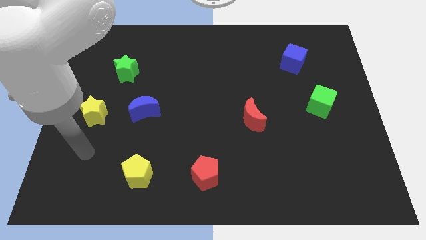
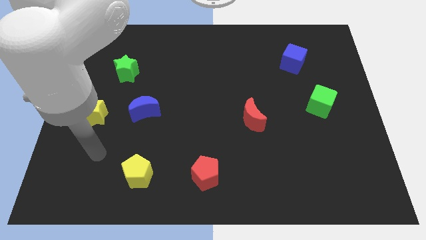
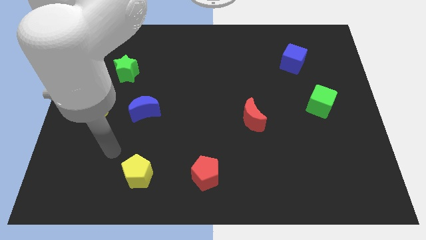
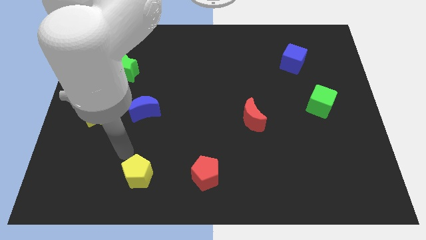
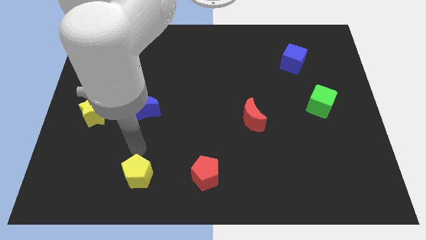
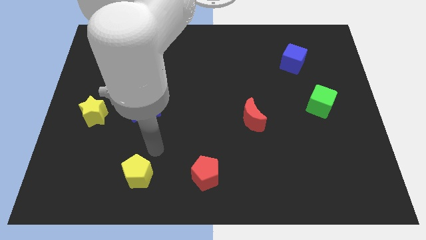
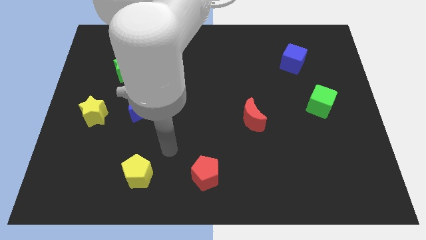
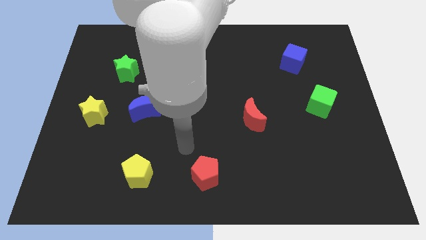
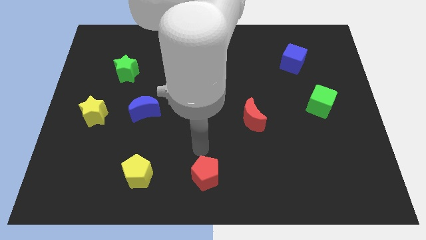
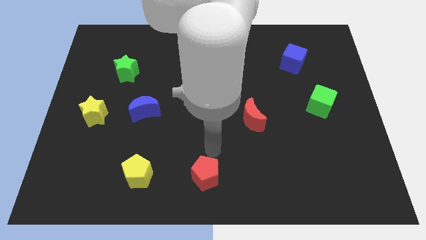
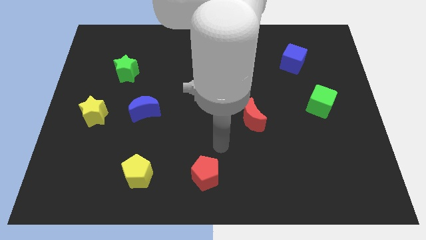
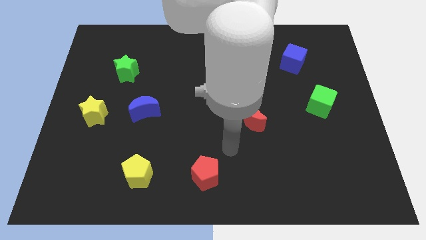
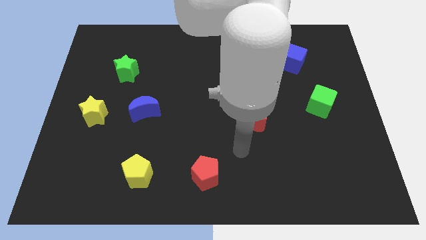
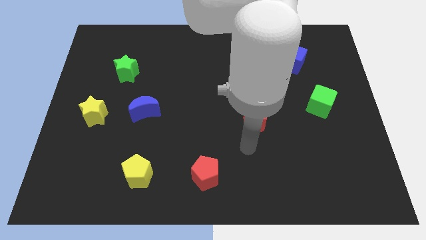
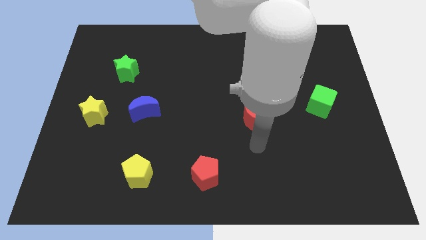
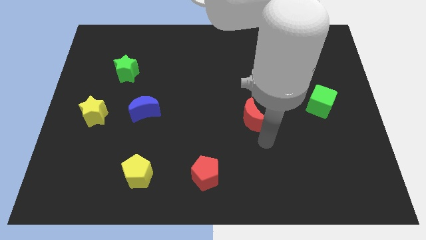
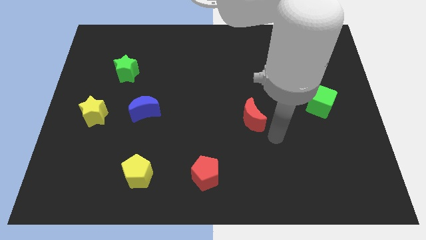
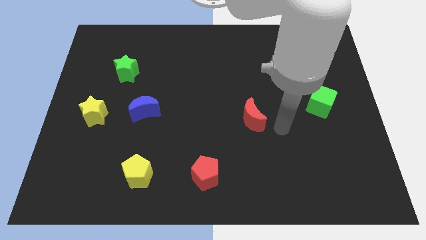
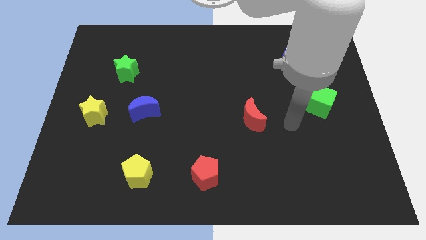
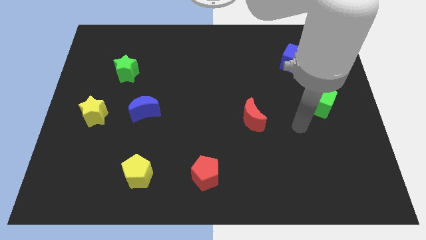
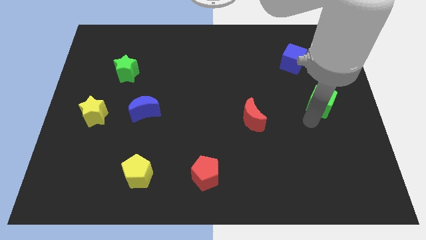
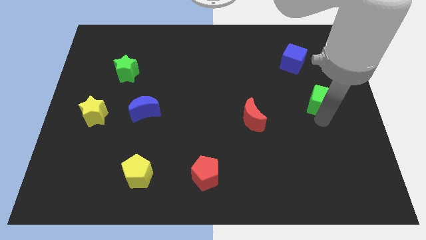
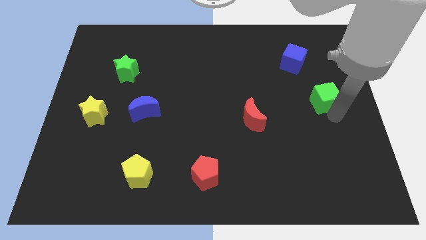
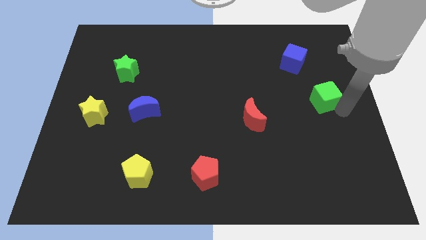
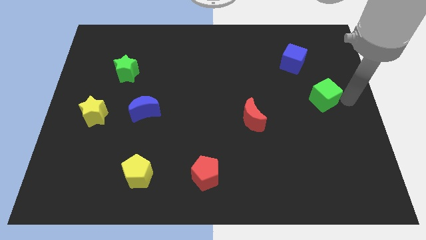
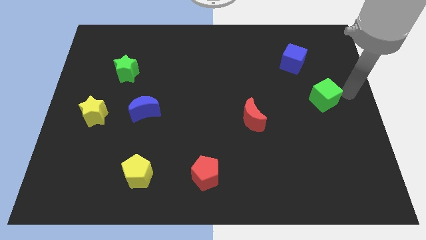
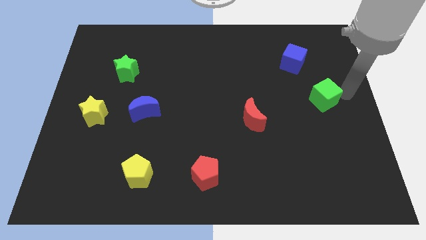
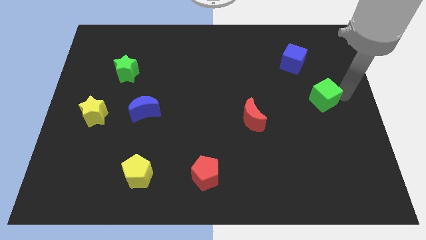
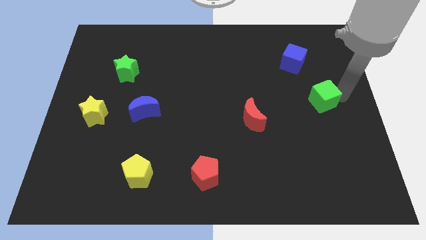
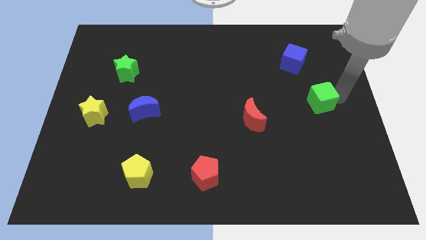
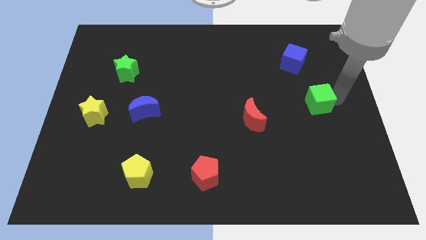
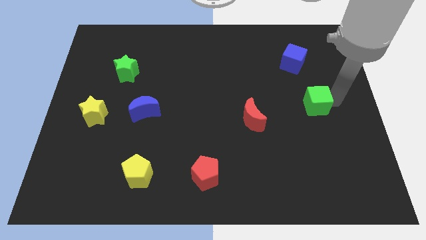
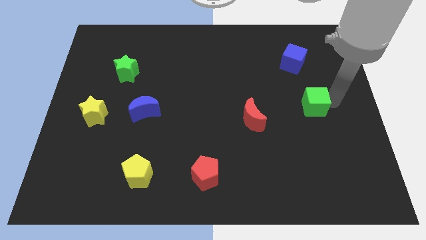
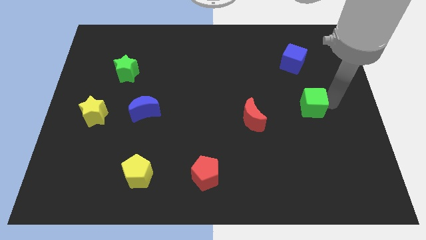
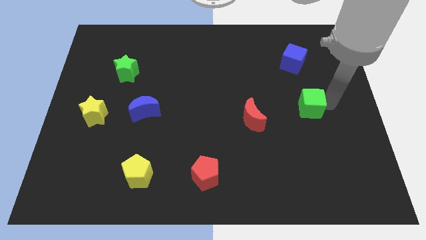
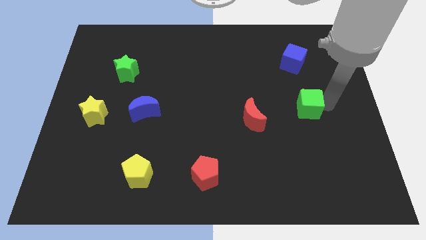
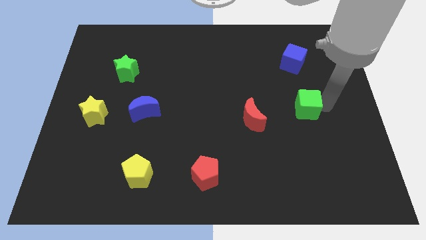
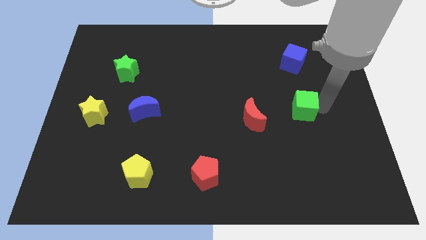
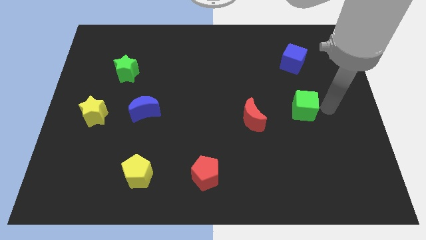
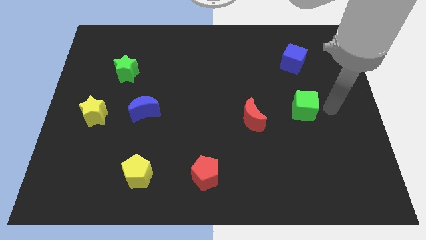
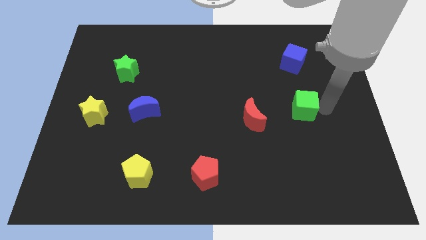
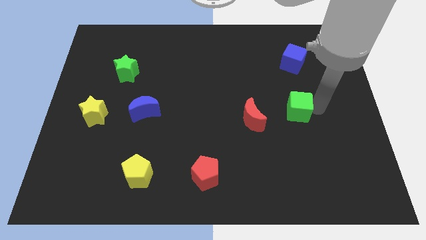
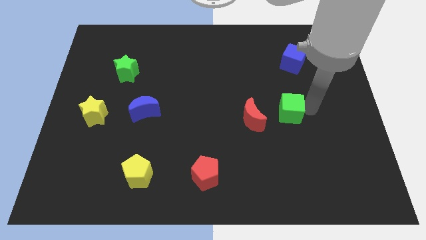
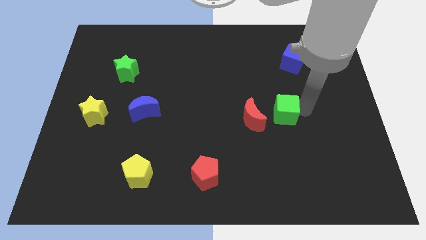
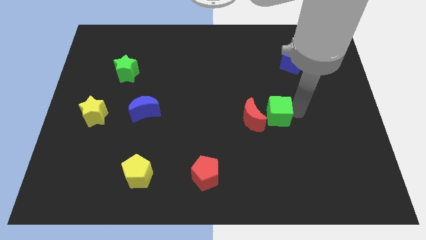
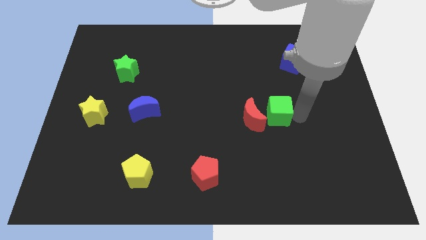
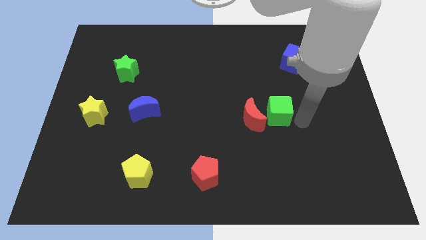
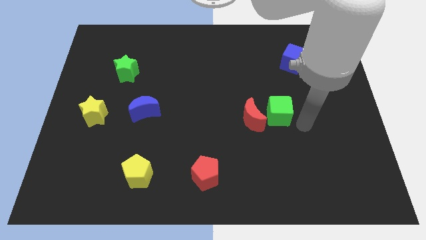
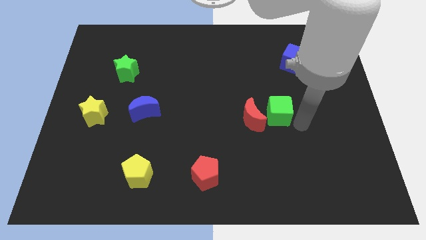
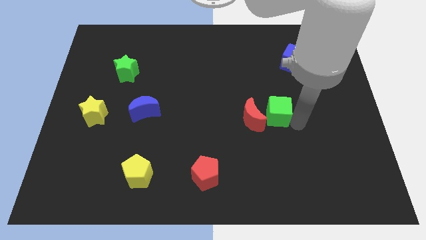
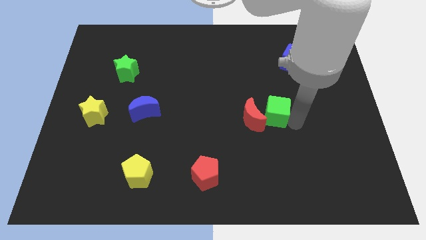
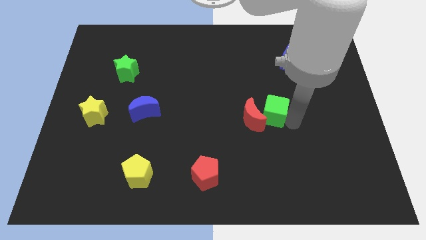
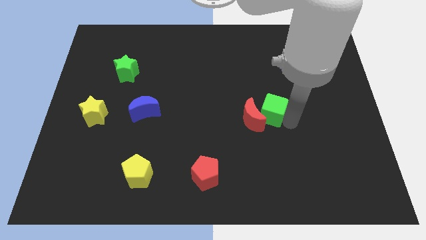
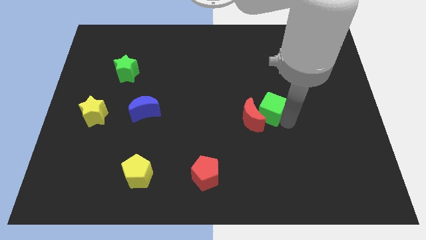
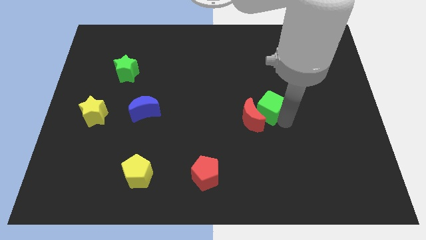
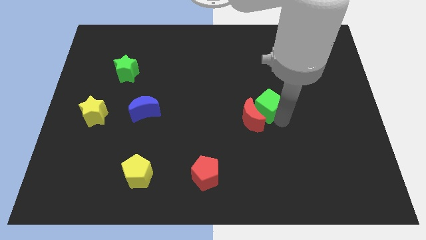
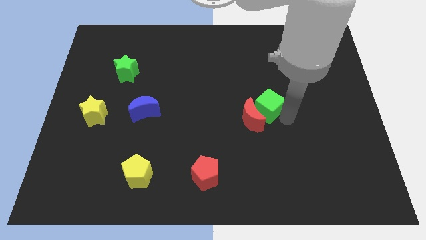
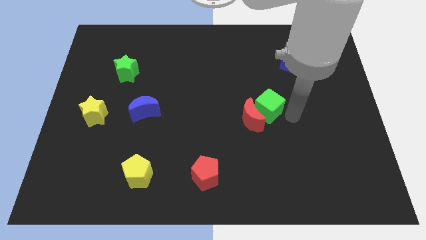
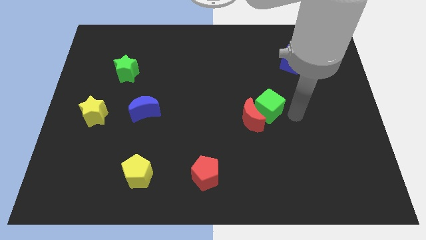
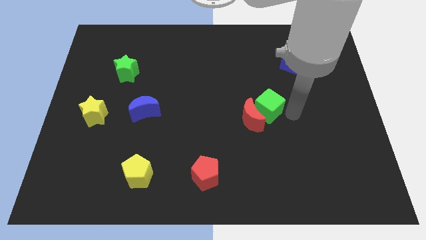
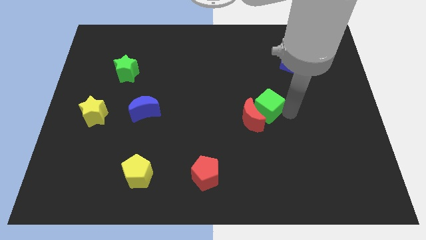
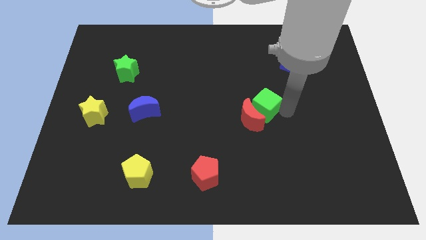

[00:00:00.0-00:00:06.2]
put the green cube to the center
